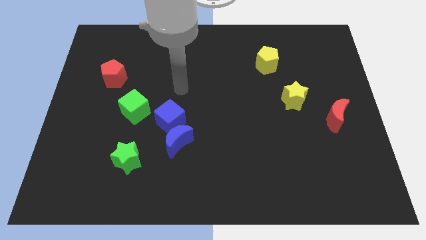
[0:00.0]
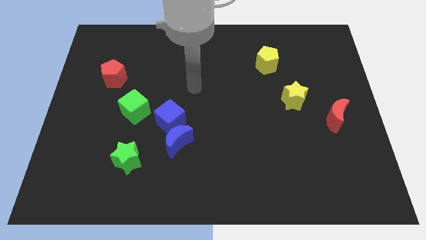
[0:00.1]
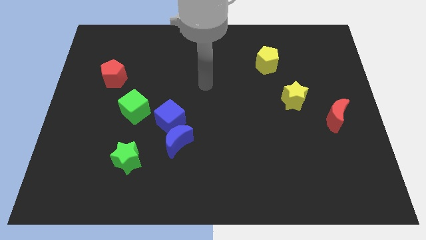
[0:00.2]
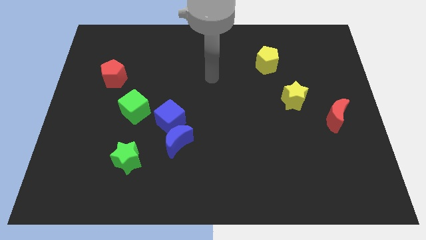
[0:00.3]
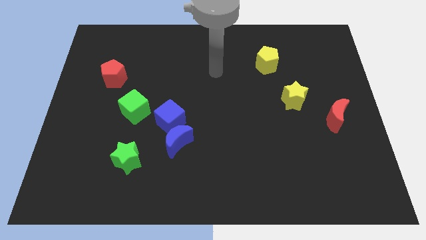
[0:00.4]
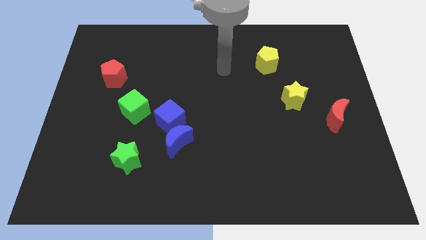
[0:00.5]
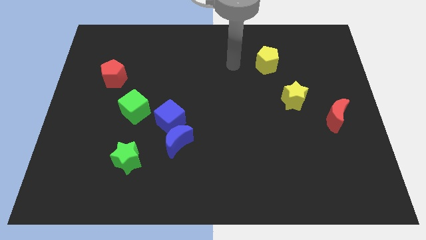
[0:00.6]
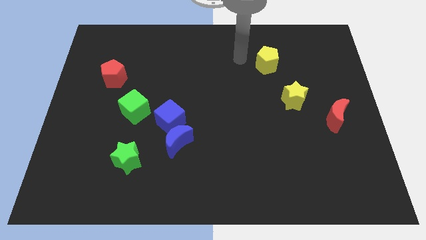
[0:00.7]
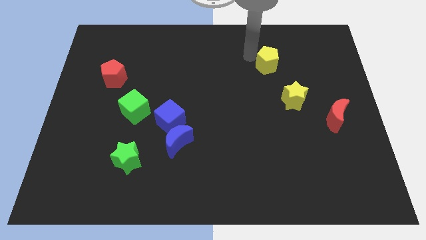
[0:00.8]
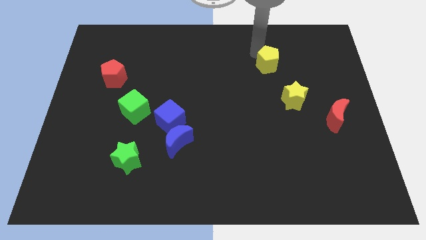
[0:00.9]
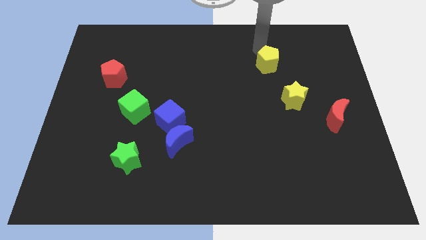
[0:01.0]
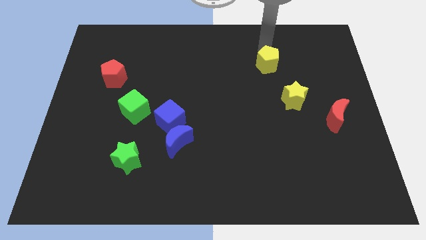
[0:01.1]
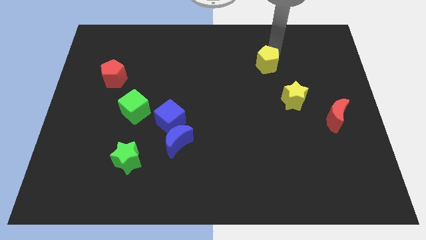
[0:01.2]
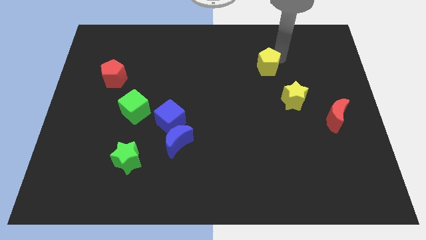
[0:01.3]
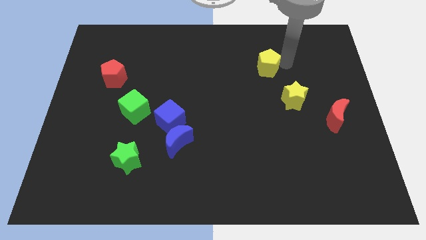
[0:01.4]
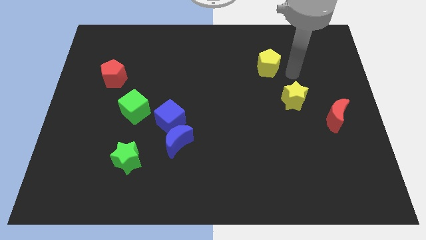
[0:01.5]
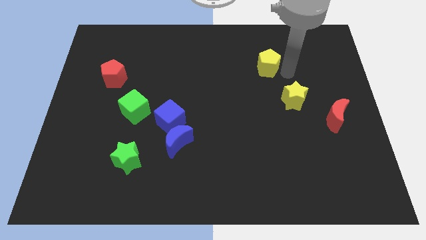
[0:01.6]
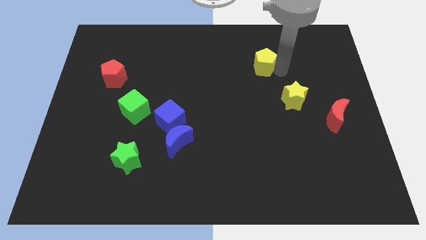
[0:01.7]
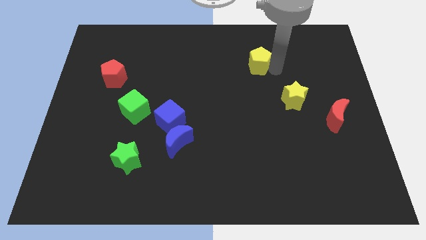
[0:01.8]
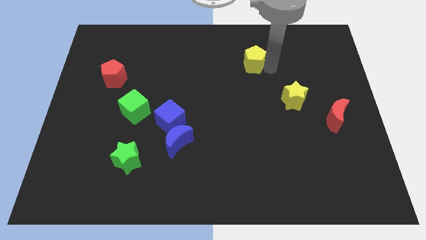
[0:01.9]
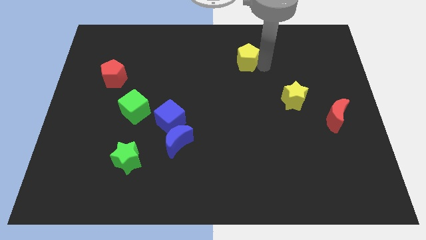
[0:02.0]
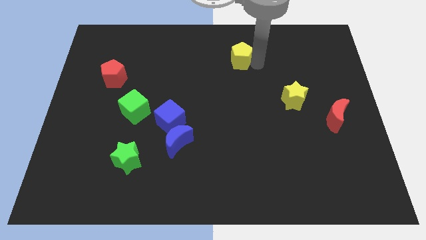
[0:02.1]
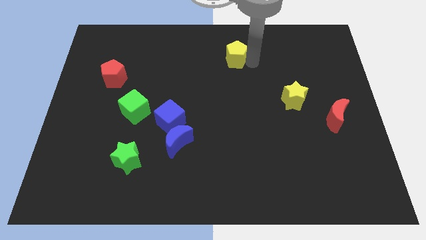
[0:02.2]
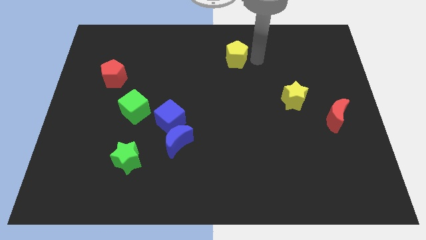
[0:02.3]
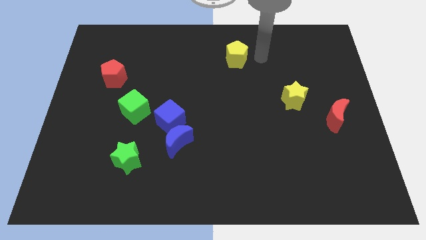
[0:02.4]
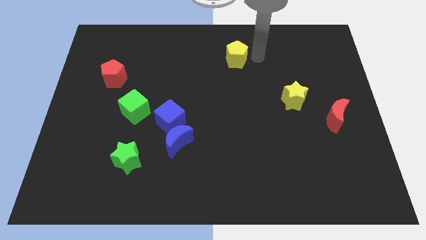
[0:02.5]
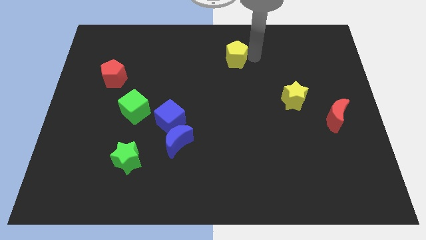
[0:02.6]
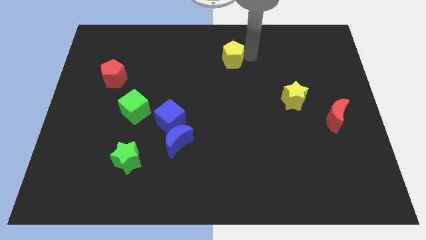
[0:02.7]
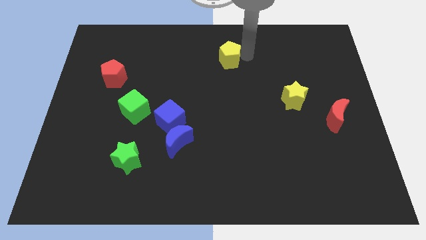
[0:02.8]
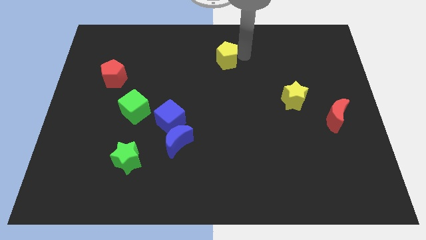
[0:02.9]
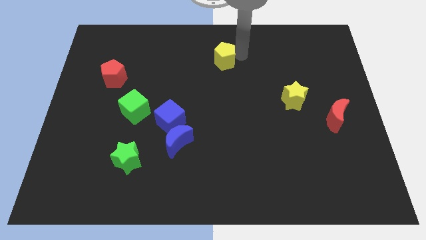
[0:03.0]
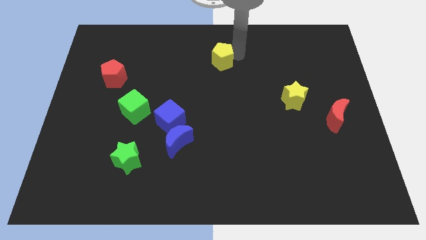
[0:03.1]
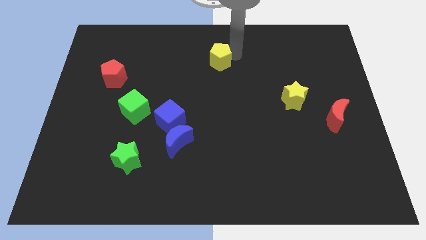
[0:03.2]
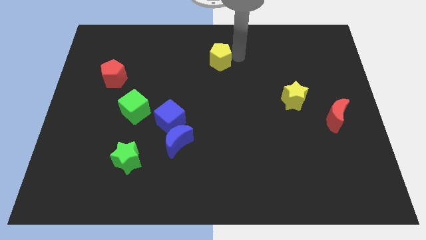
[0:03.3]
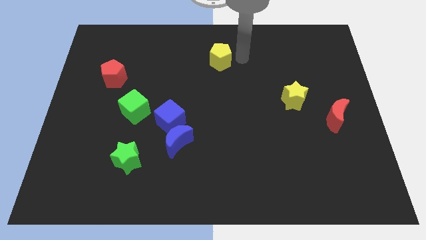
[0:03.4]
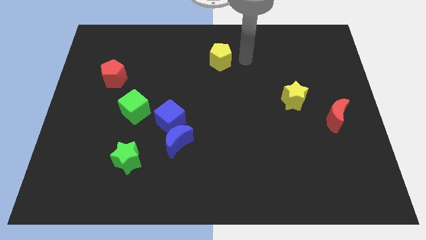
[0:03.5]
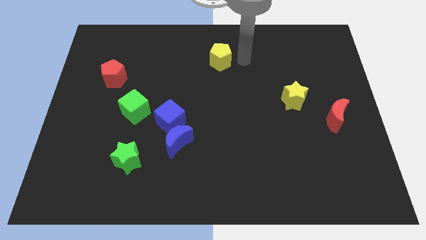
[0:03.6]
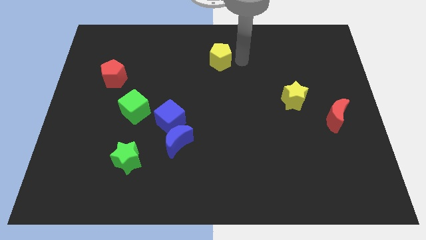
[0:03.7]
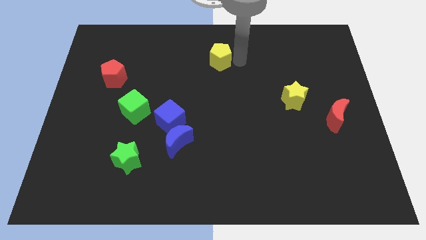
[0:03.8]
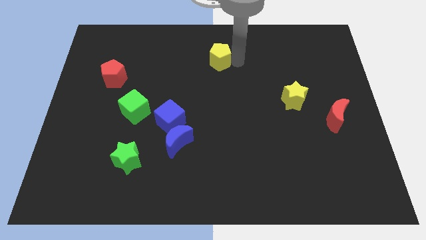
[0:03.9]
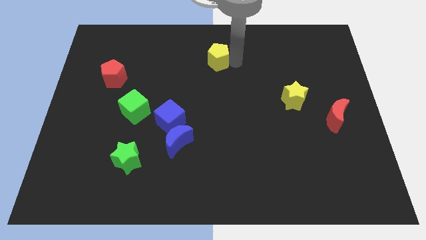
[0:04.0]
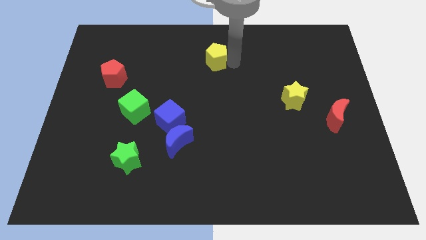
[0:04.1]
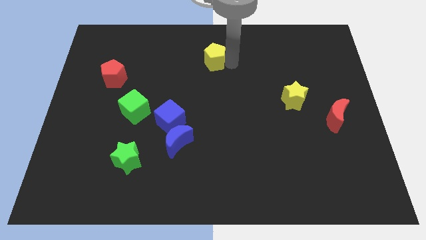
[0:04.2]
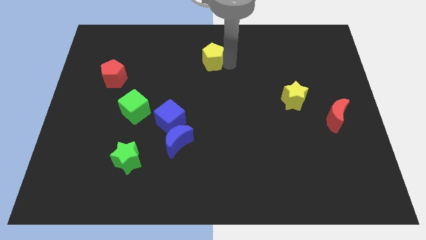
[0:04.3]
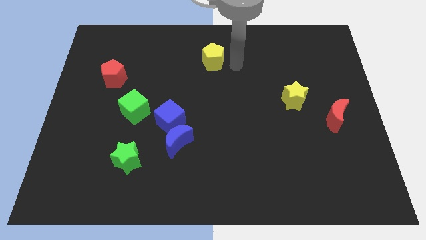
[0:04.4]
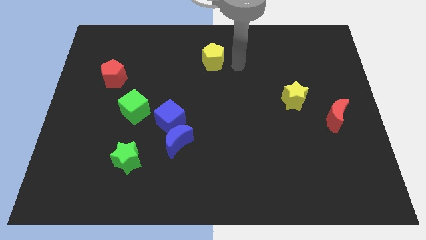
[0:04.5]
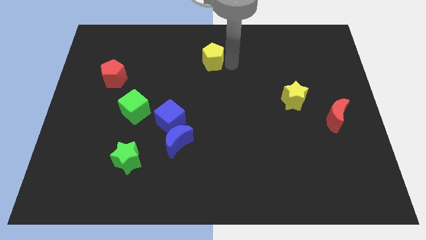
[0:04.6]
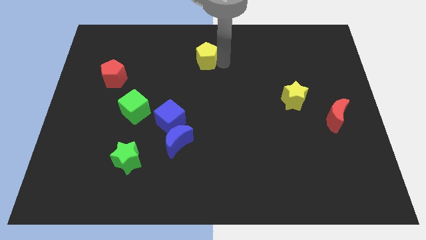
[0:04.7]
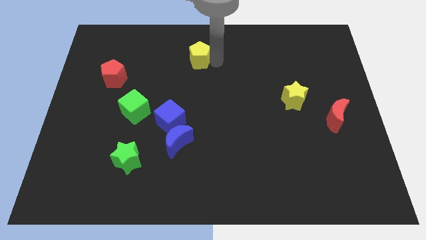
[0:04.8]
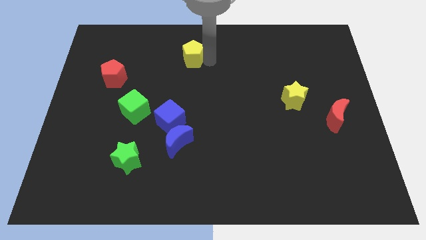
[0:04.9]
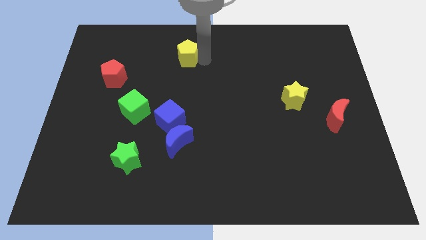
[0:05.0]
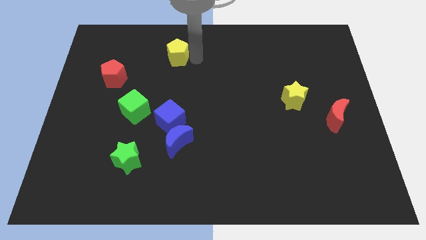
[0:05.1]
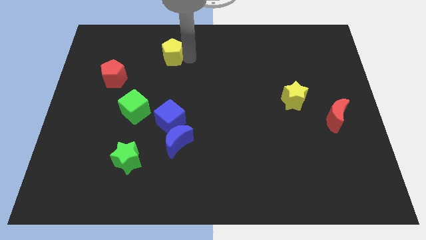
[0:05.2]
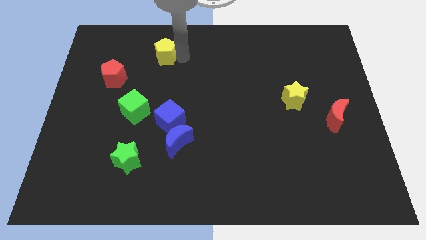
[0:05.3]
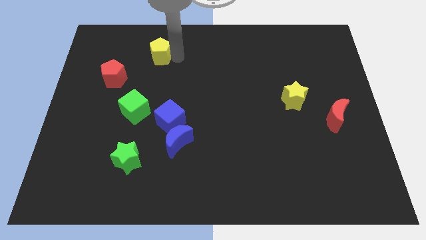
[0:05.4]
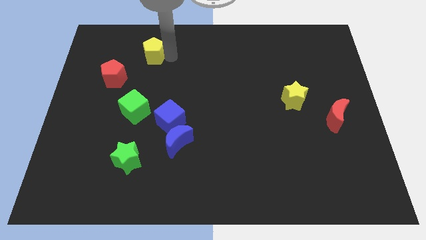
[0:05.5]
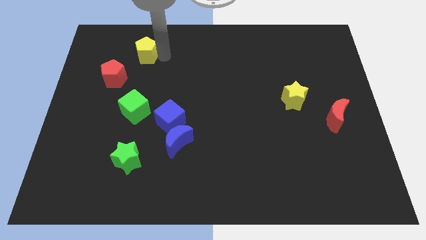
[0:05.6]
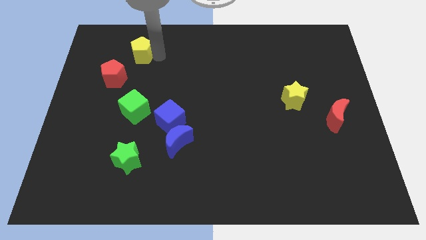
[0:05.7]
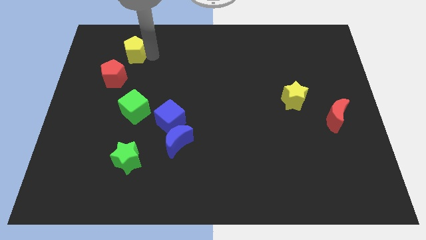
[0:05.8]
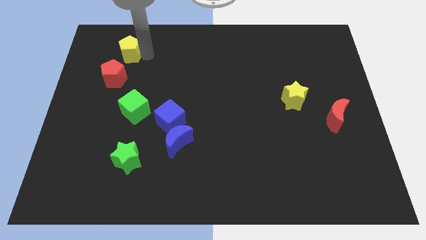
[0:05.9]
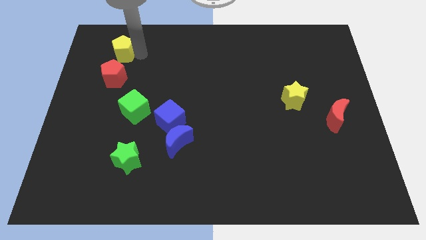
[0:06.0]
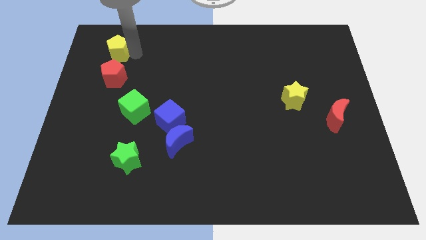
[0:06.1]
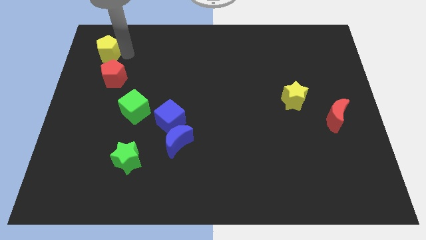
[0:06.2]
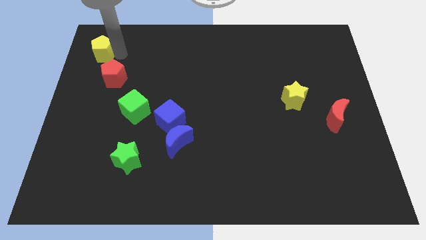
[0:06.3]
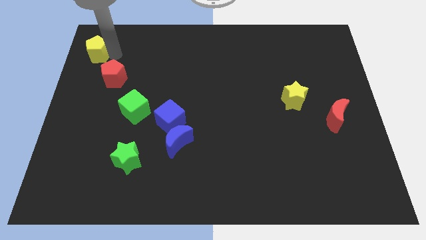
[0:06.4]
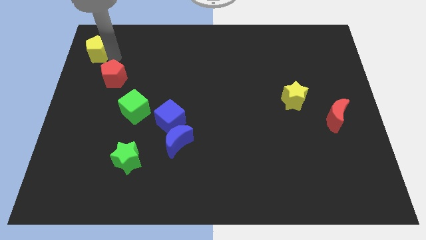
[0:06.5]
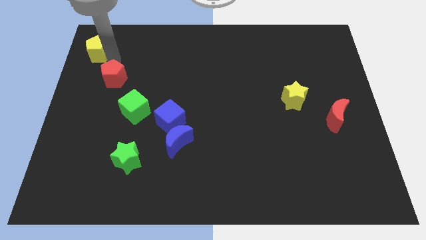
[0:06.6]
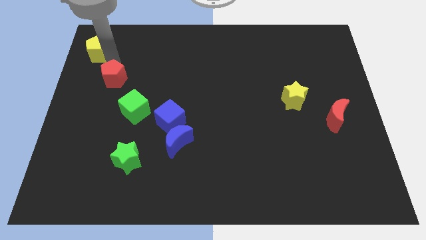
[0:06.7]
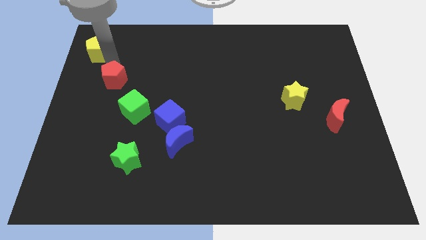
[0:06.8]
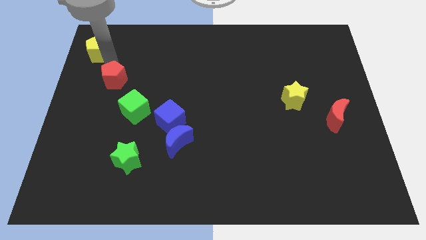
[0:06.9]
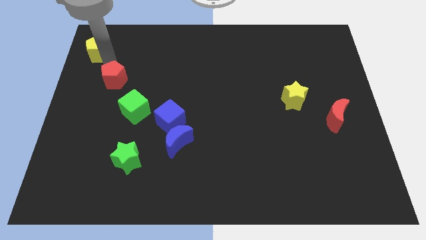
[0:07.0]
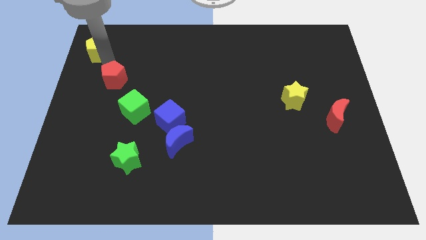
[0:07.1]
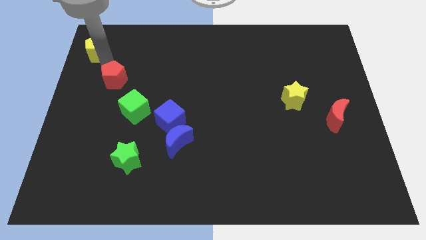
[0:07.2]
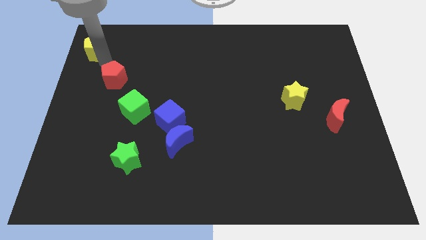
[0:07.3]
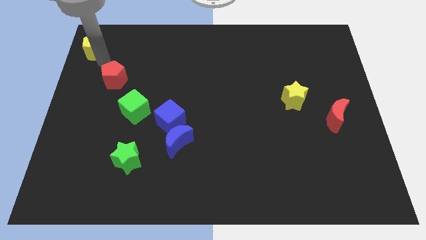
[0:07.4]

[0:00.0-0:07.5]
slide the yellow pentagon to the top left of the board
